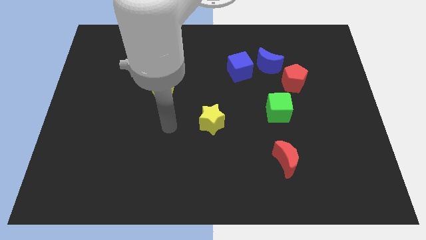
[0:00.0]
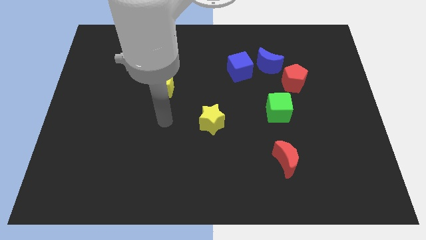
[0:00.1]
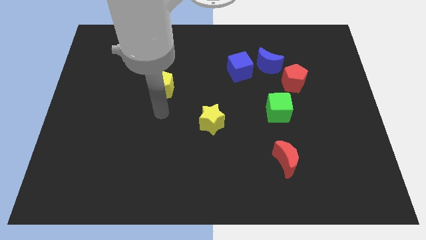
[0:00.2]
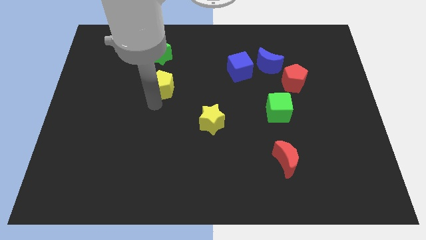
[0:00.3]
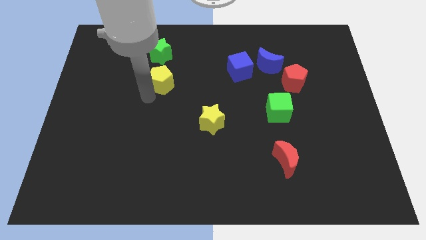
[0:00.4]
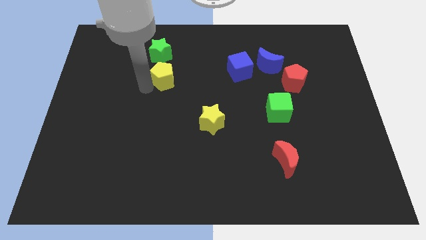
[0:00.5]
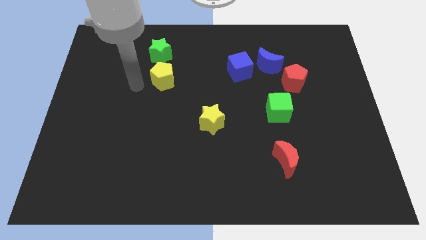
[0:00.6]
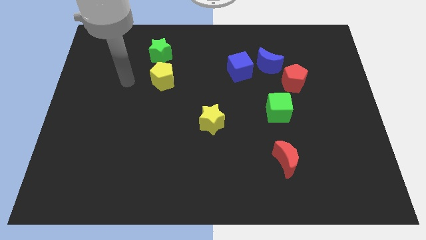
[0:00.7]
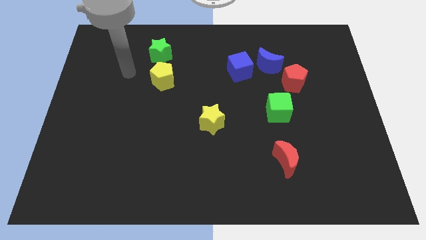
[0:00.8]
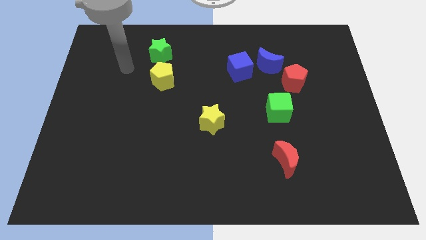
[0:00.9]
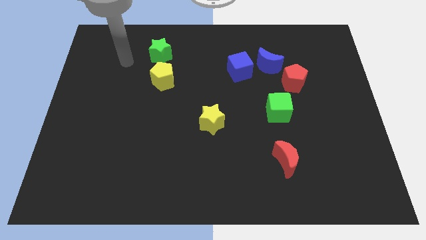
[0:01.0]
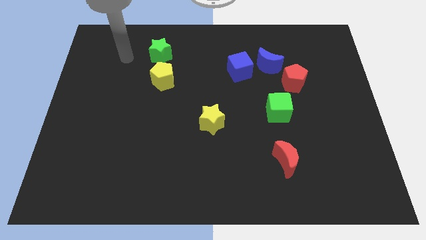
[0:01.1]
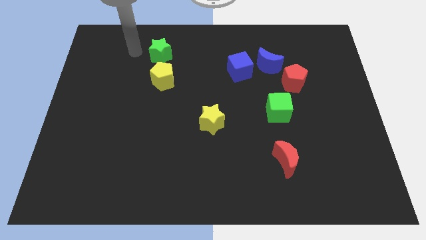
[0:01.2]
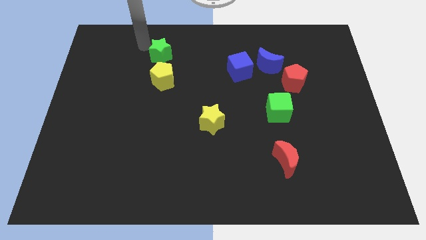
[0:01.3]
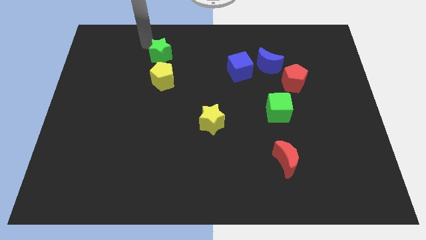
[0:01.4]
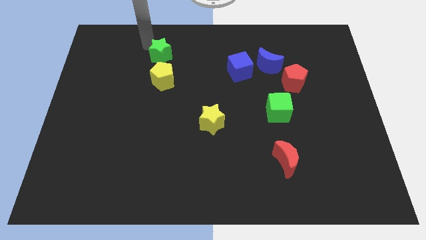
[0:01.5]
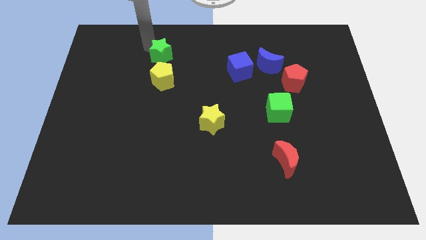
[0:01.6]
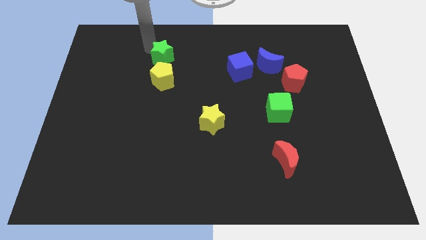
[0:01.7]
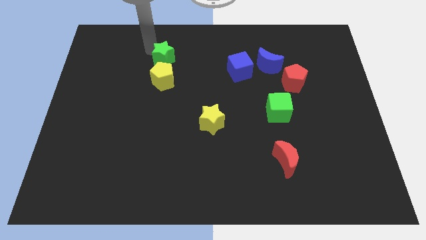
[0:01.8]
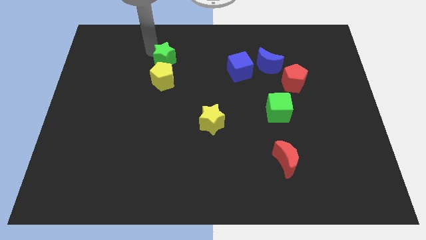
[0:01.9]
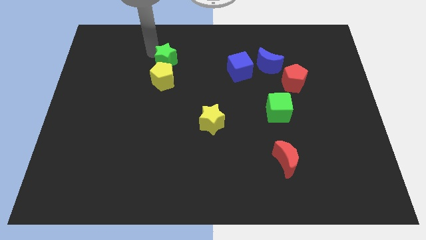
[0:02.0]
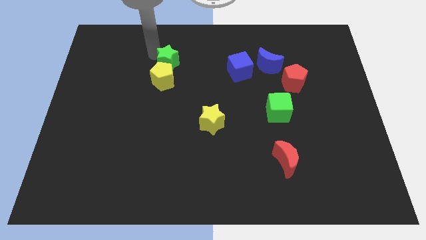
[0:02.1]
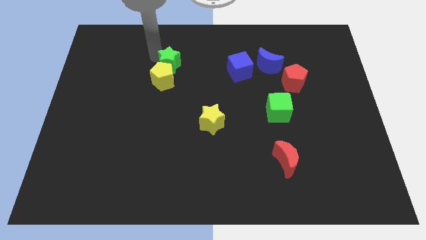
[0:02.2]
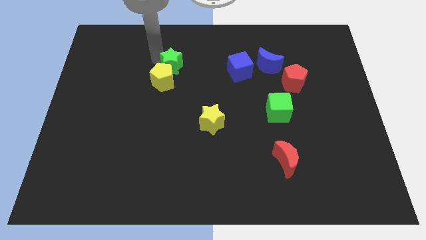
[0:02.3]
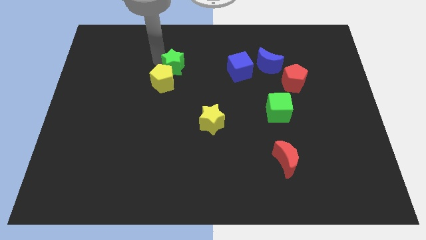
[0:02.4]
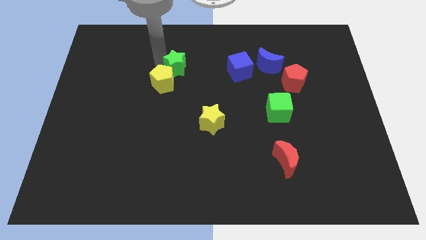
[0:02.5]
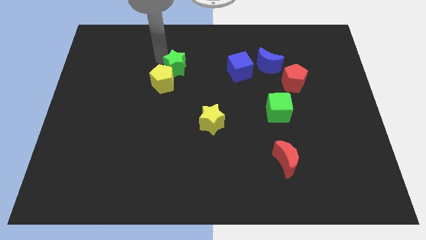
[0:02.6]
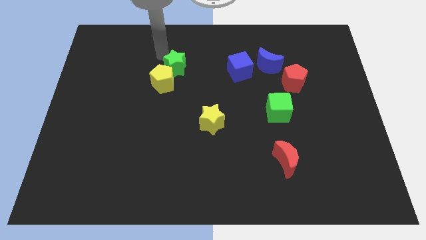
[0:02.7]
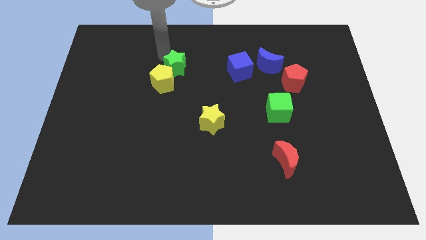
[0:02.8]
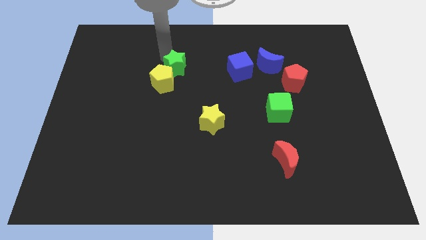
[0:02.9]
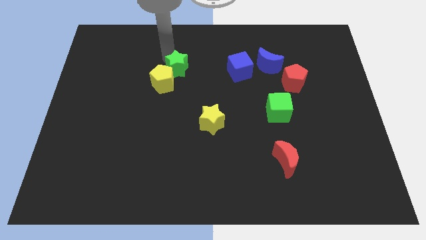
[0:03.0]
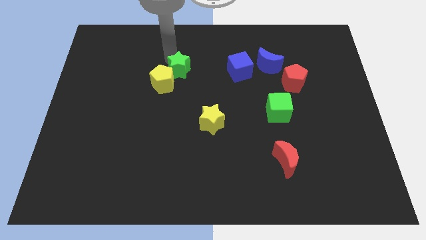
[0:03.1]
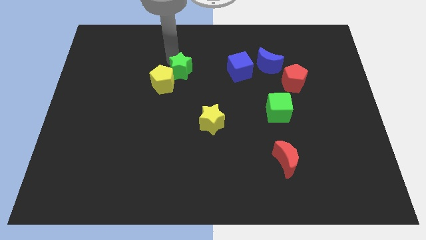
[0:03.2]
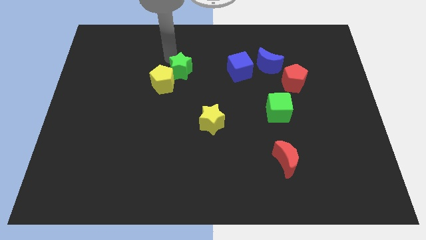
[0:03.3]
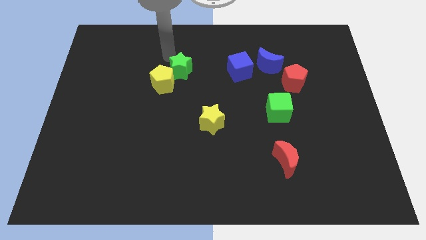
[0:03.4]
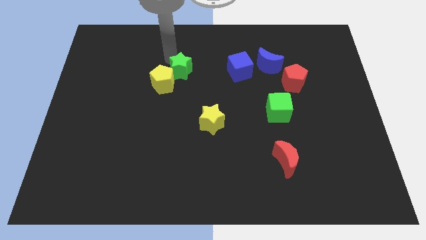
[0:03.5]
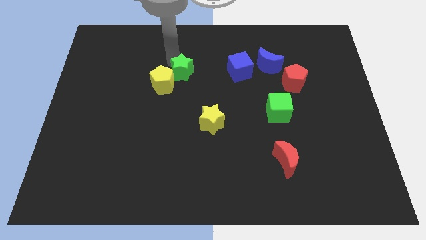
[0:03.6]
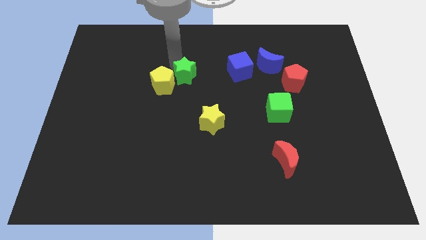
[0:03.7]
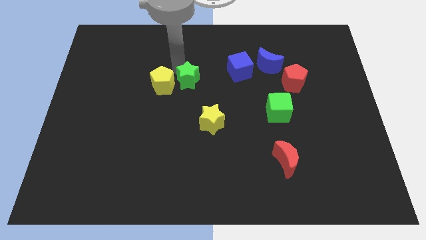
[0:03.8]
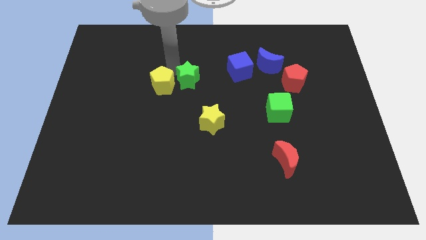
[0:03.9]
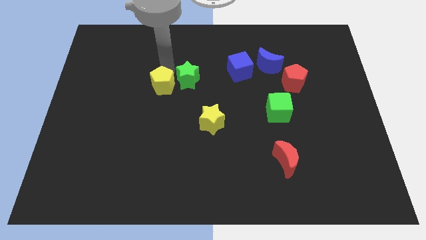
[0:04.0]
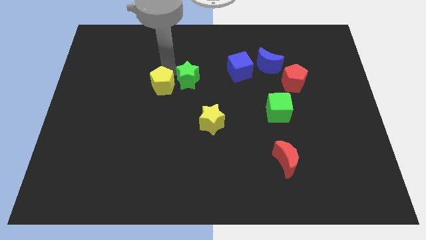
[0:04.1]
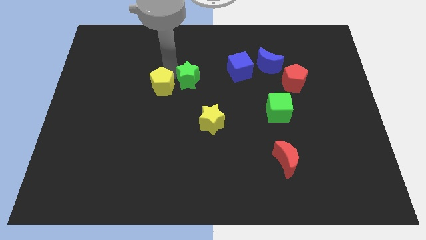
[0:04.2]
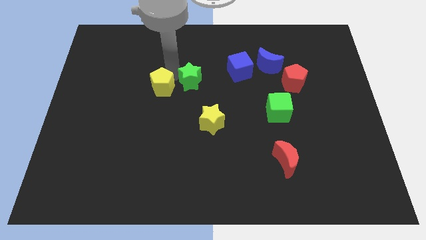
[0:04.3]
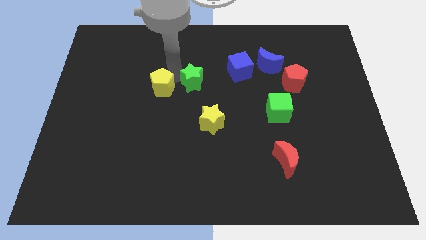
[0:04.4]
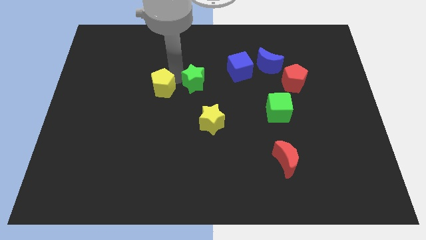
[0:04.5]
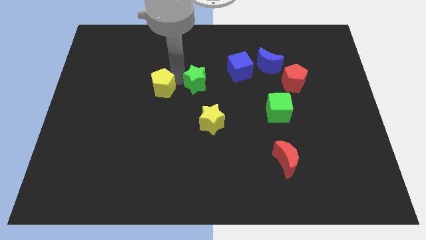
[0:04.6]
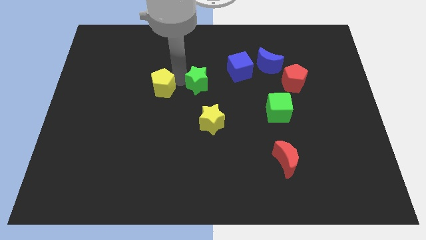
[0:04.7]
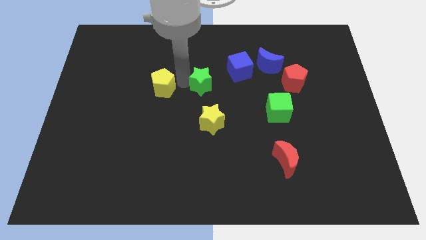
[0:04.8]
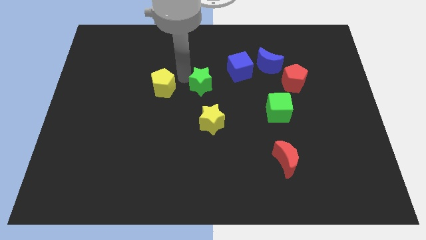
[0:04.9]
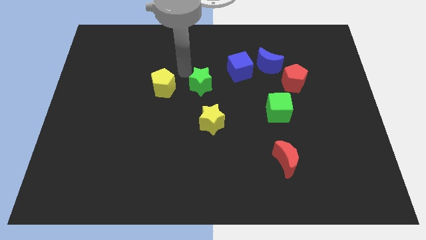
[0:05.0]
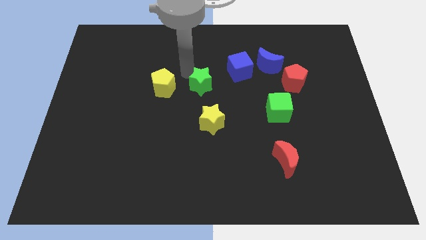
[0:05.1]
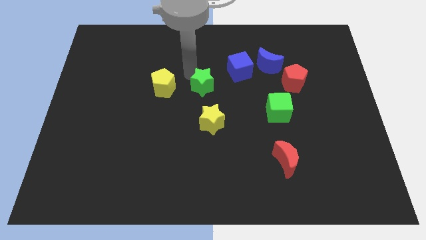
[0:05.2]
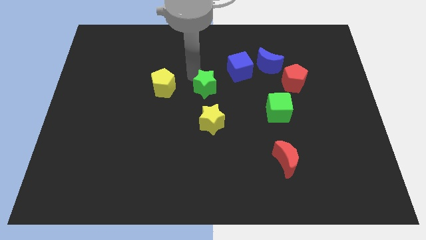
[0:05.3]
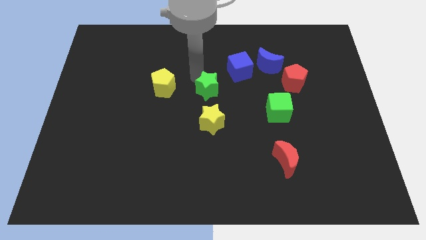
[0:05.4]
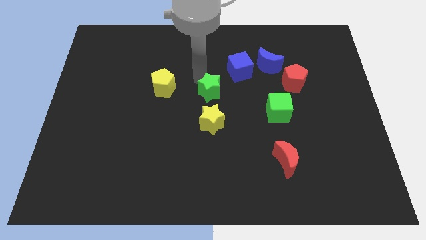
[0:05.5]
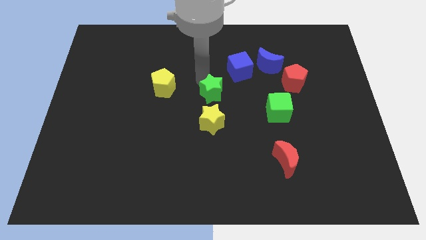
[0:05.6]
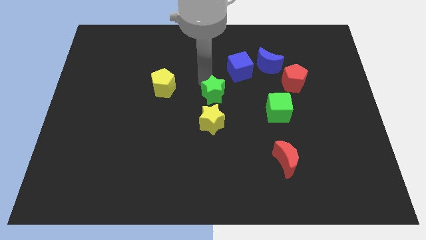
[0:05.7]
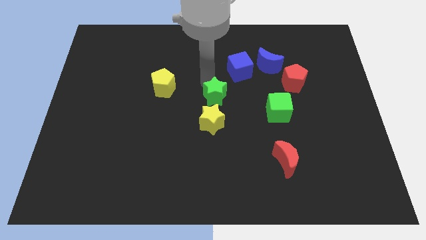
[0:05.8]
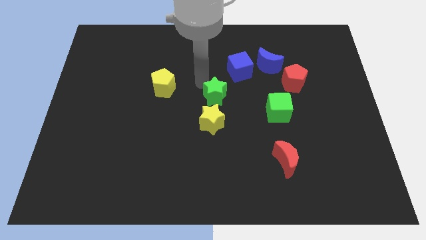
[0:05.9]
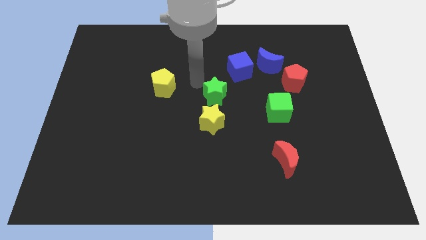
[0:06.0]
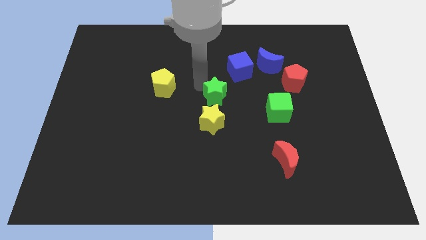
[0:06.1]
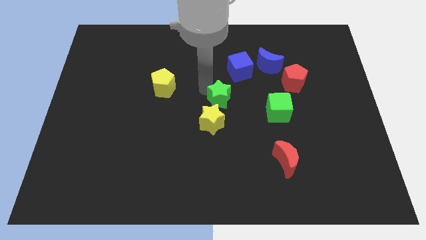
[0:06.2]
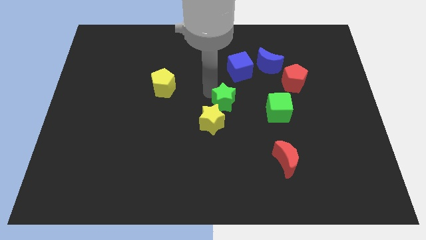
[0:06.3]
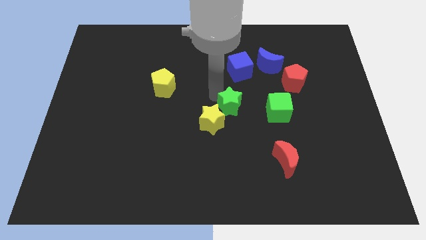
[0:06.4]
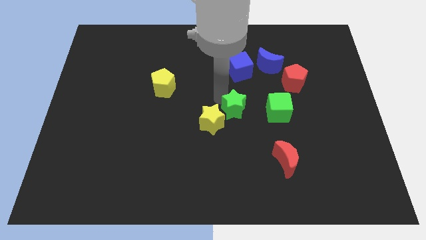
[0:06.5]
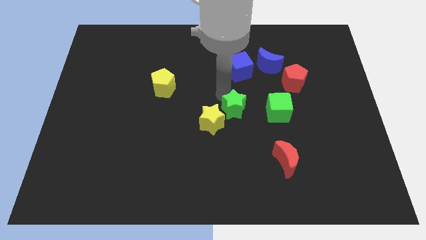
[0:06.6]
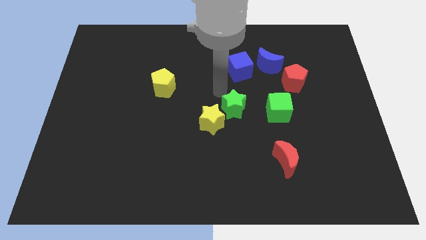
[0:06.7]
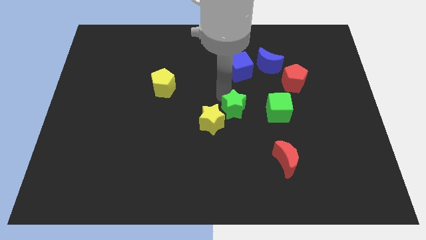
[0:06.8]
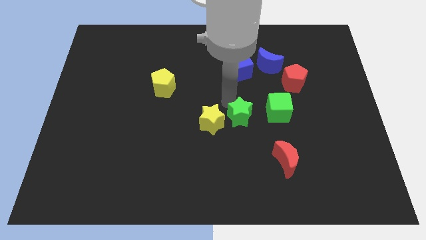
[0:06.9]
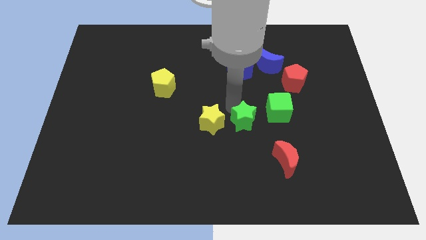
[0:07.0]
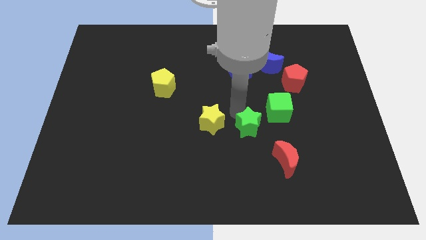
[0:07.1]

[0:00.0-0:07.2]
push the green star diagonally up and to the left of the red moon

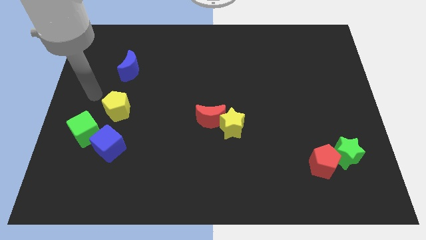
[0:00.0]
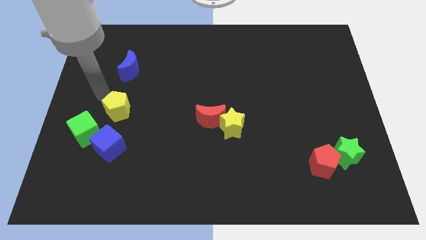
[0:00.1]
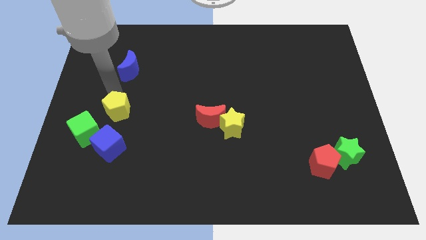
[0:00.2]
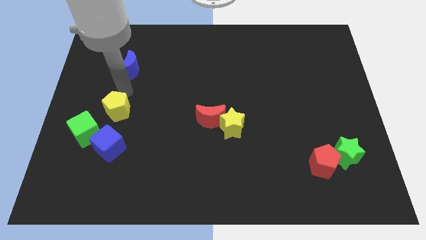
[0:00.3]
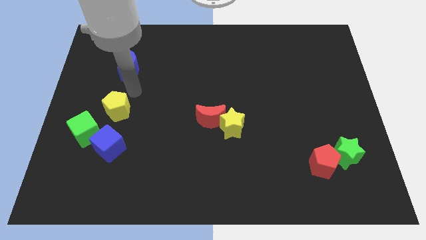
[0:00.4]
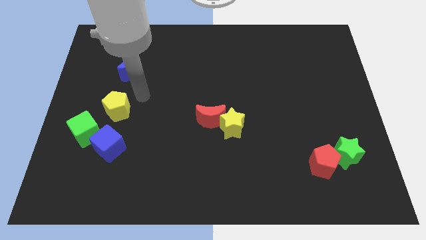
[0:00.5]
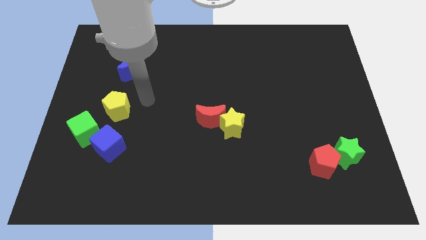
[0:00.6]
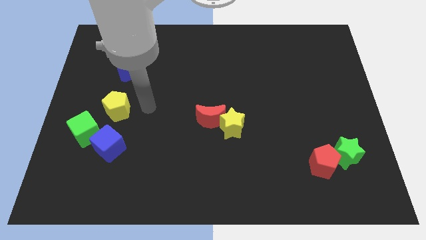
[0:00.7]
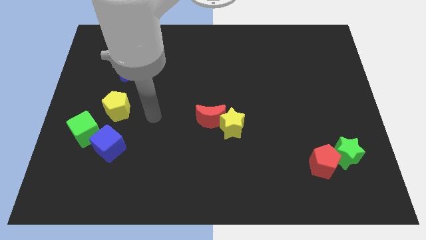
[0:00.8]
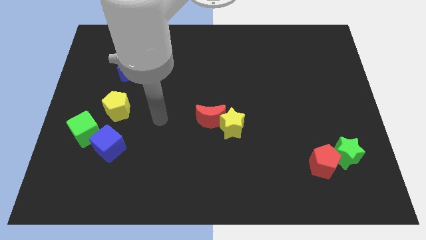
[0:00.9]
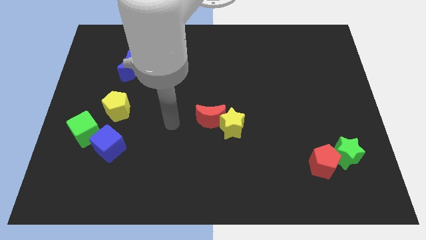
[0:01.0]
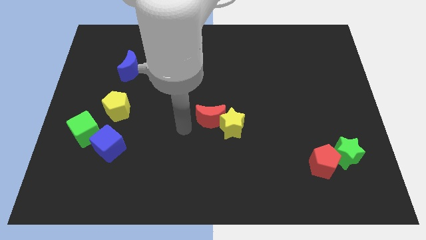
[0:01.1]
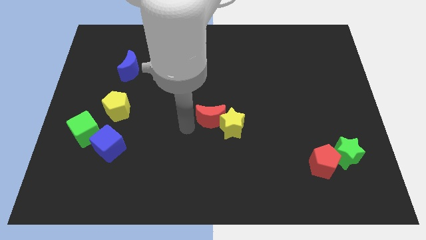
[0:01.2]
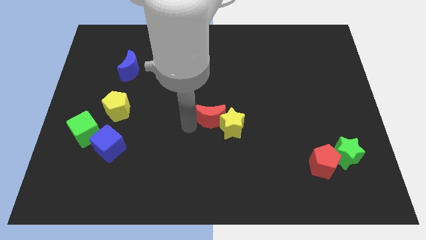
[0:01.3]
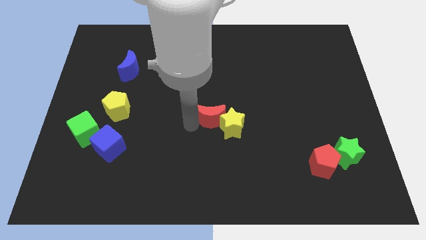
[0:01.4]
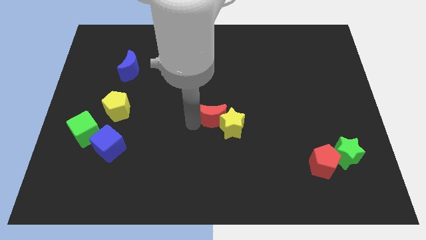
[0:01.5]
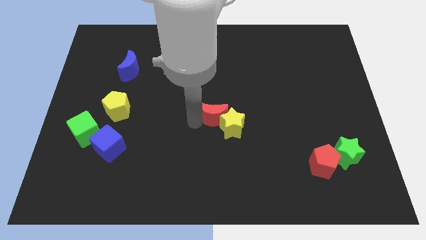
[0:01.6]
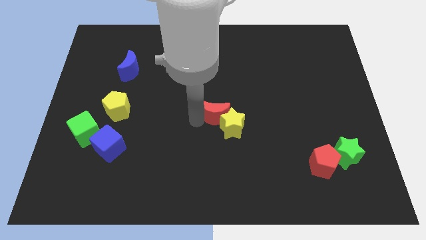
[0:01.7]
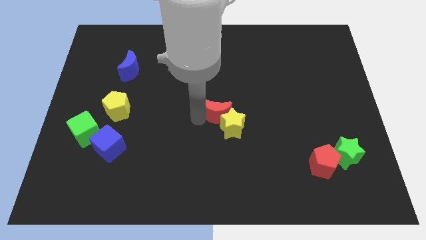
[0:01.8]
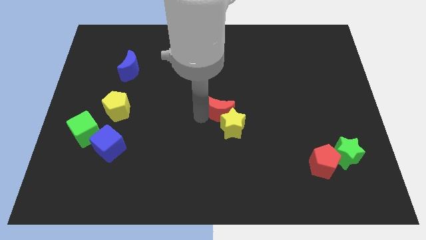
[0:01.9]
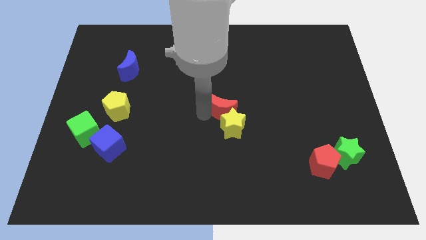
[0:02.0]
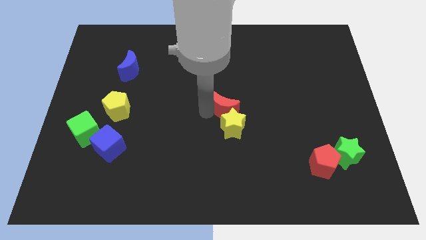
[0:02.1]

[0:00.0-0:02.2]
slide the red moon to the top right side of the yellow star
